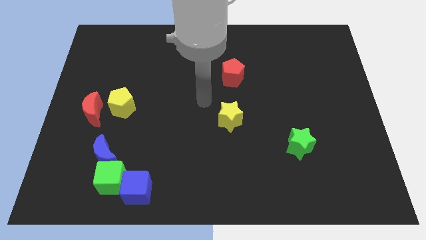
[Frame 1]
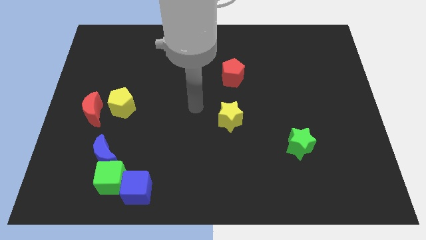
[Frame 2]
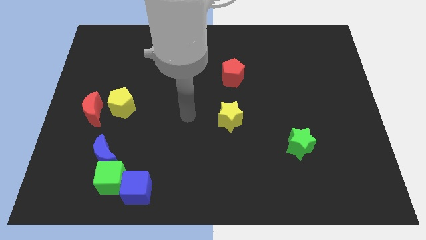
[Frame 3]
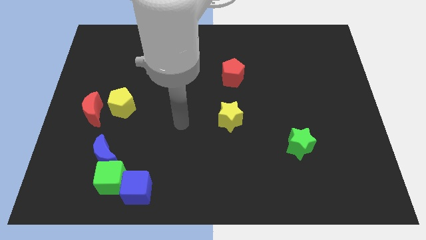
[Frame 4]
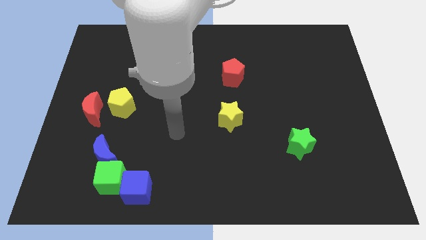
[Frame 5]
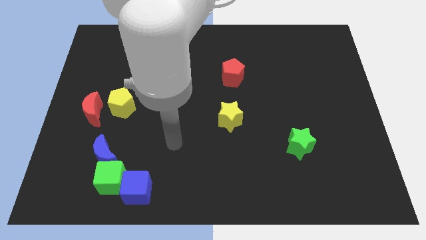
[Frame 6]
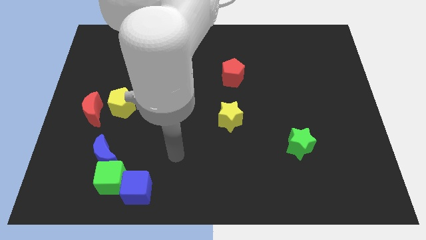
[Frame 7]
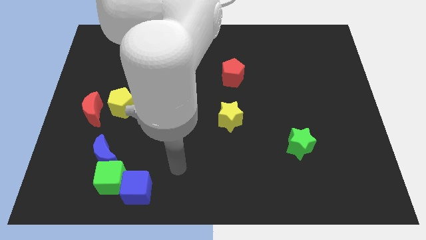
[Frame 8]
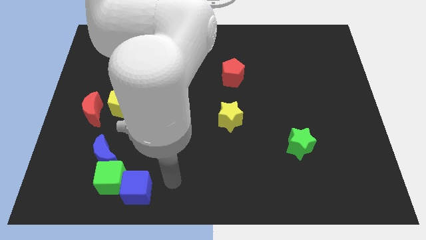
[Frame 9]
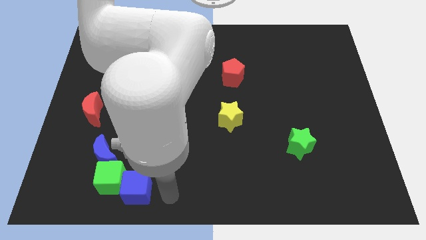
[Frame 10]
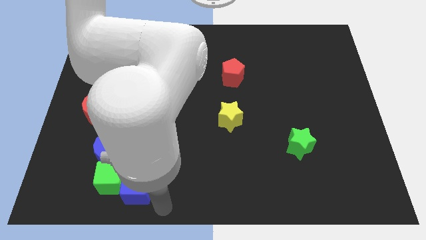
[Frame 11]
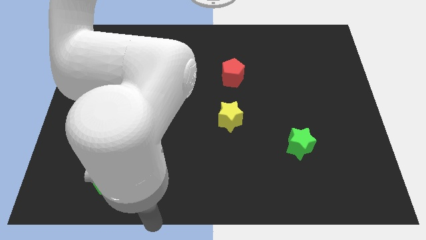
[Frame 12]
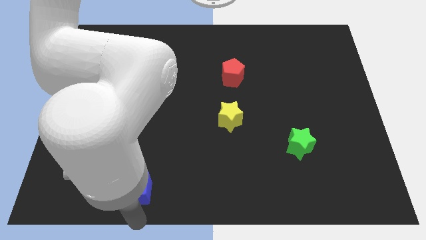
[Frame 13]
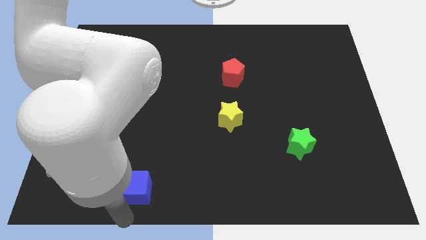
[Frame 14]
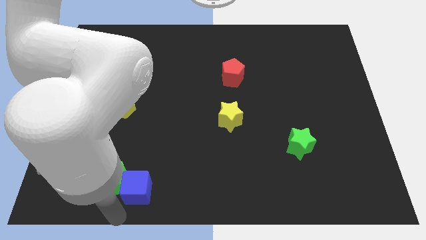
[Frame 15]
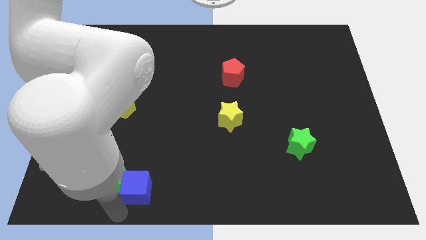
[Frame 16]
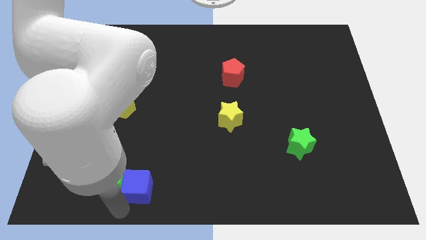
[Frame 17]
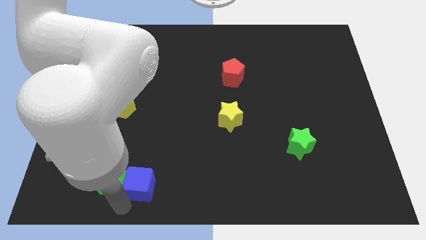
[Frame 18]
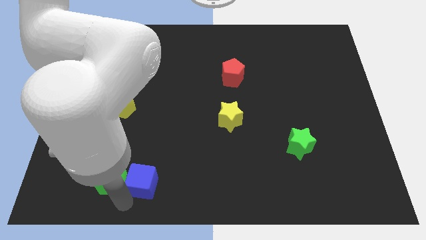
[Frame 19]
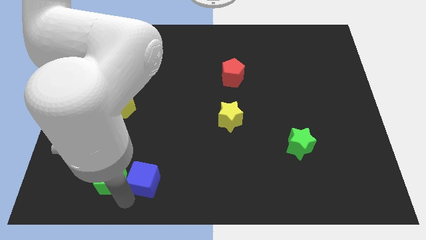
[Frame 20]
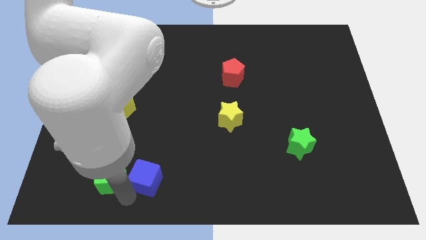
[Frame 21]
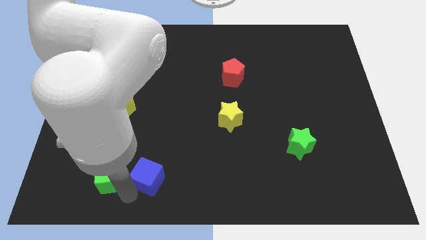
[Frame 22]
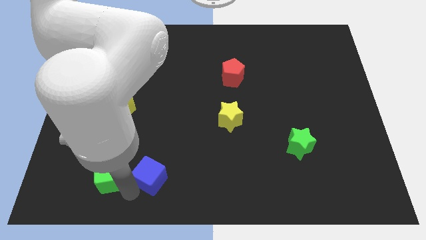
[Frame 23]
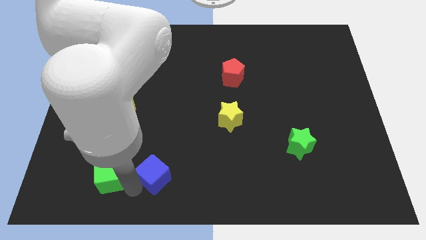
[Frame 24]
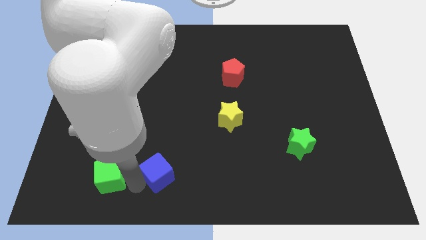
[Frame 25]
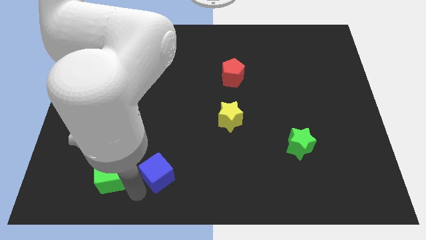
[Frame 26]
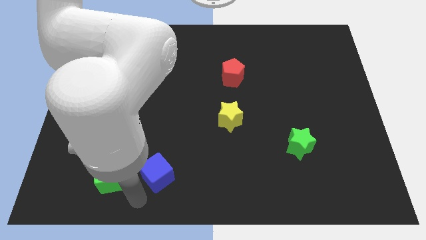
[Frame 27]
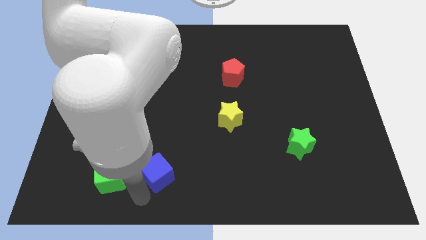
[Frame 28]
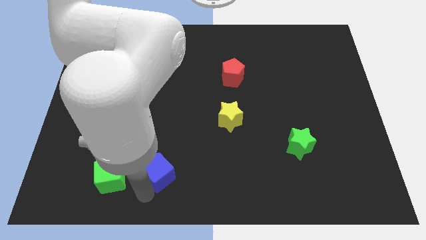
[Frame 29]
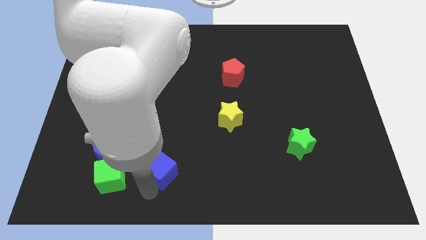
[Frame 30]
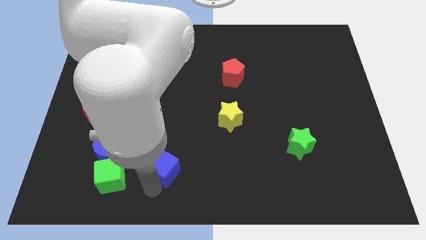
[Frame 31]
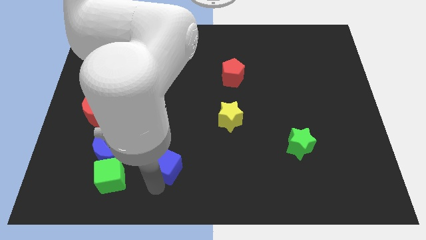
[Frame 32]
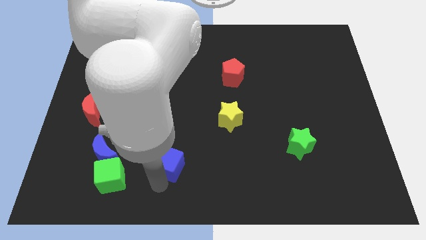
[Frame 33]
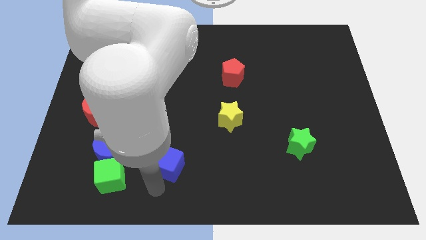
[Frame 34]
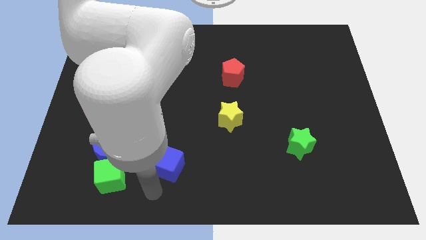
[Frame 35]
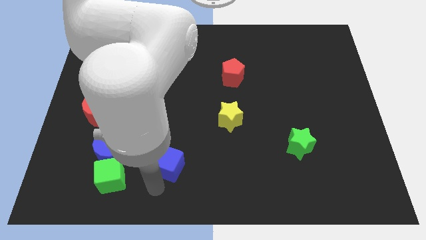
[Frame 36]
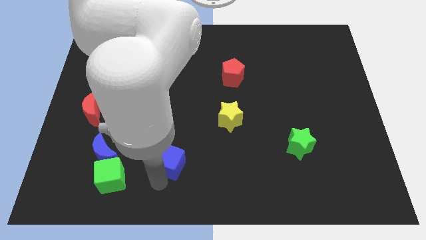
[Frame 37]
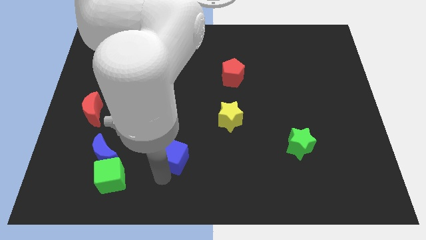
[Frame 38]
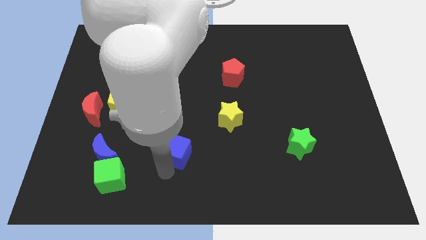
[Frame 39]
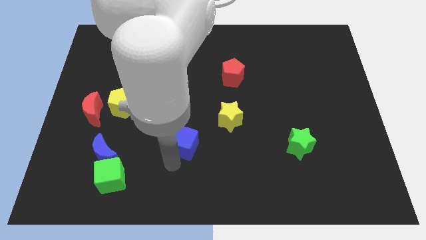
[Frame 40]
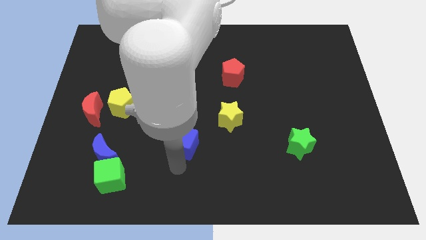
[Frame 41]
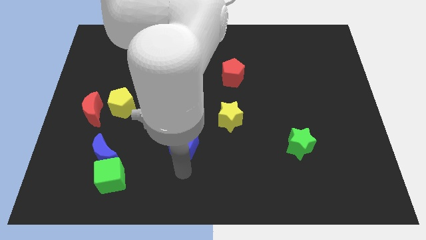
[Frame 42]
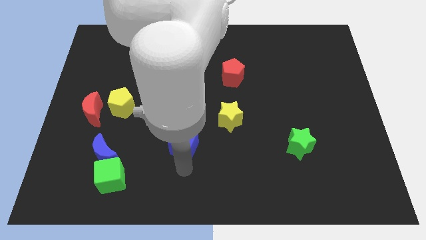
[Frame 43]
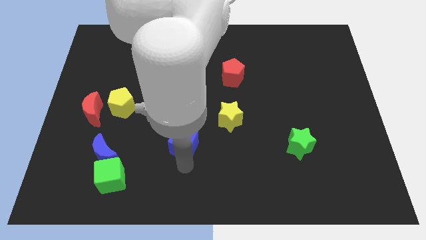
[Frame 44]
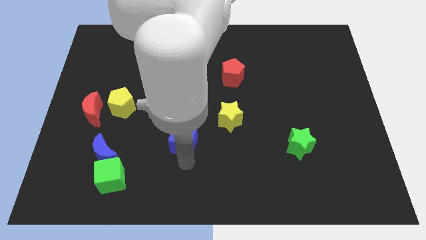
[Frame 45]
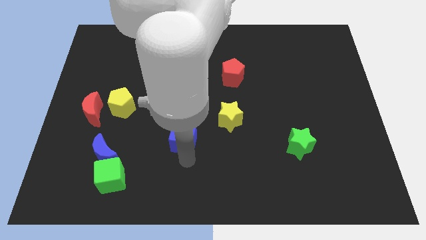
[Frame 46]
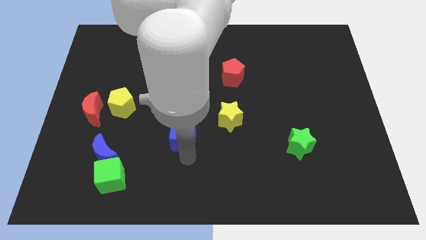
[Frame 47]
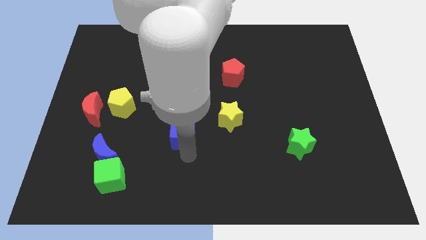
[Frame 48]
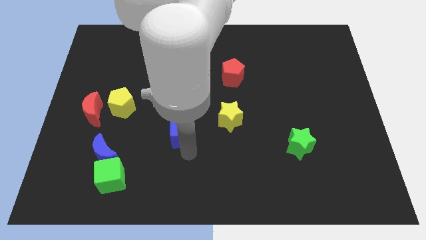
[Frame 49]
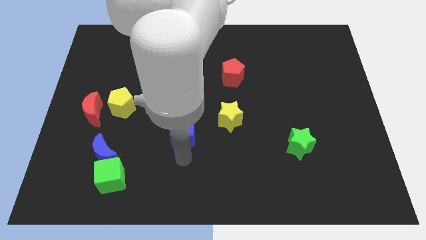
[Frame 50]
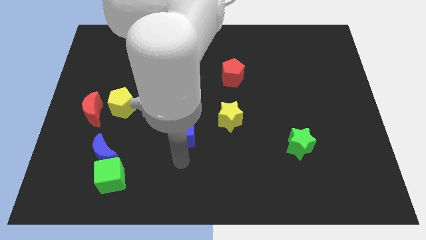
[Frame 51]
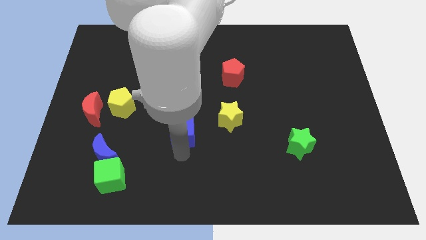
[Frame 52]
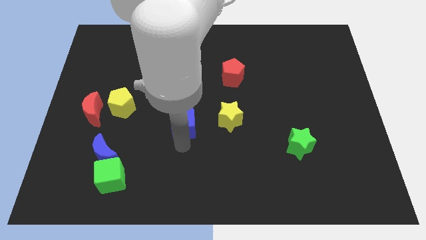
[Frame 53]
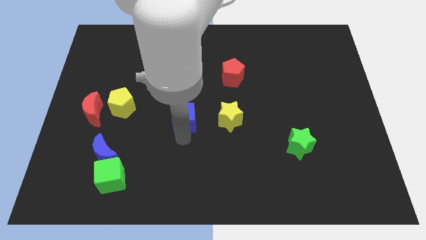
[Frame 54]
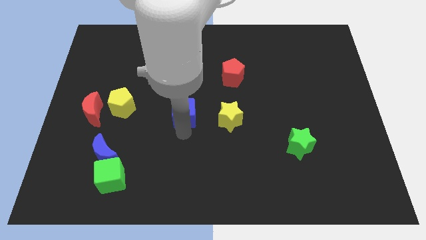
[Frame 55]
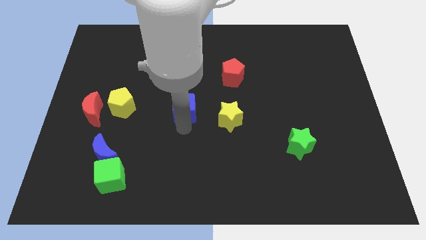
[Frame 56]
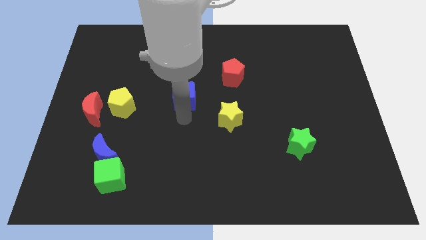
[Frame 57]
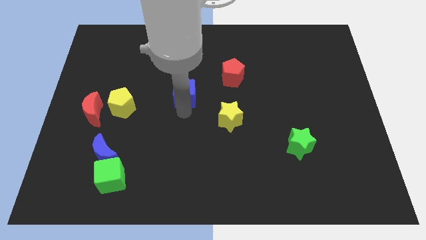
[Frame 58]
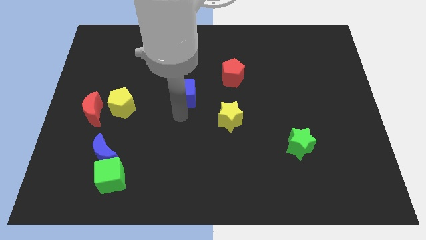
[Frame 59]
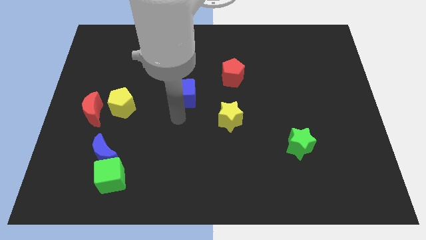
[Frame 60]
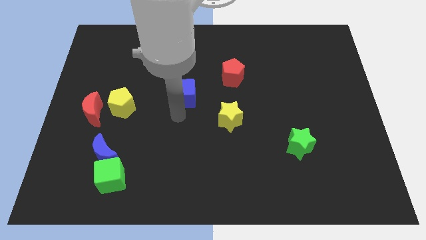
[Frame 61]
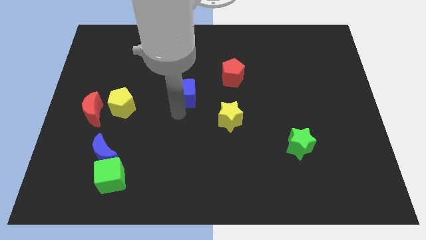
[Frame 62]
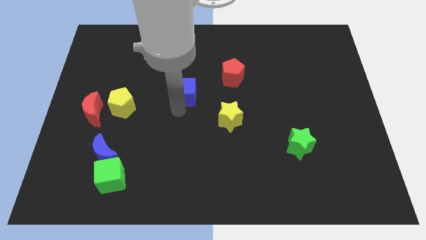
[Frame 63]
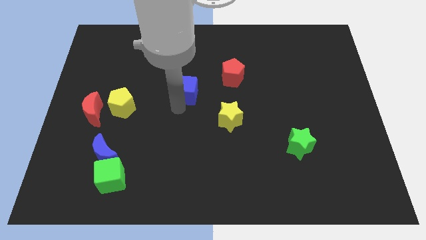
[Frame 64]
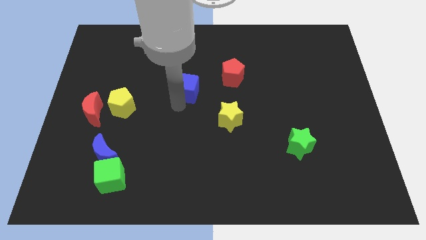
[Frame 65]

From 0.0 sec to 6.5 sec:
move the blue cube just left of the red pentagon
